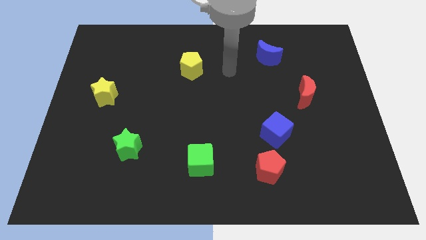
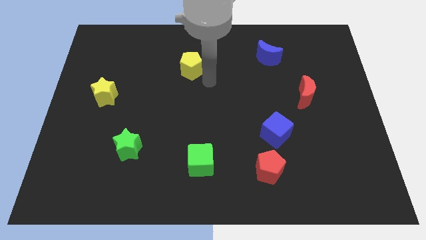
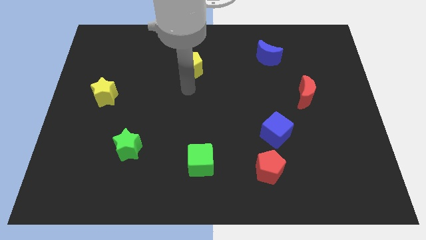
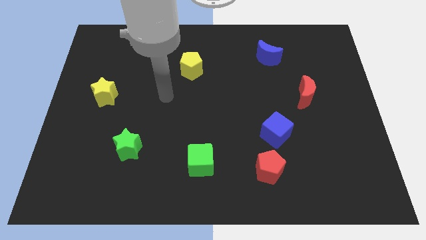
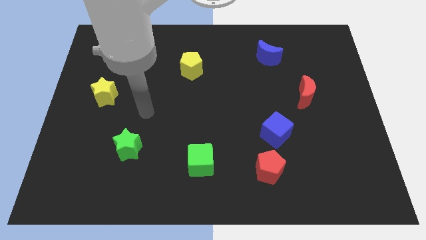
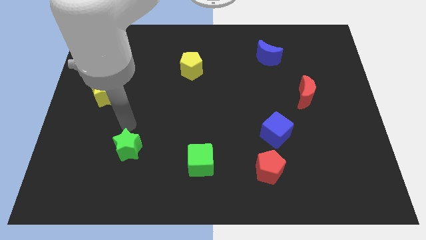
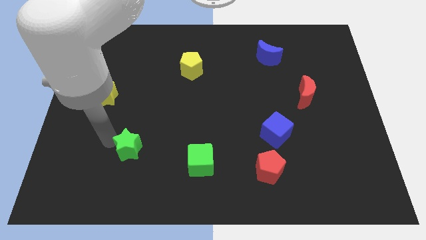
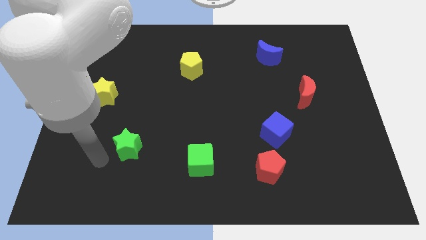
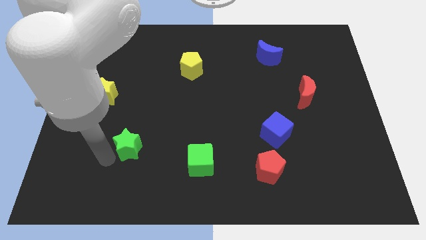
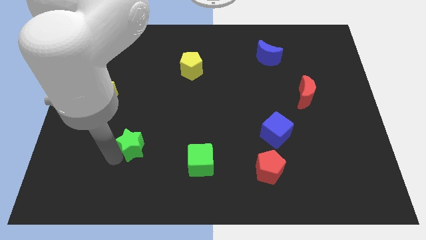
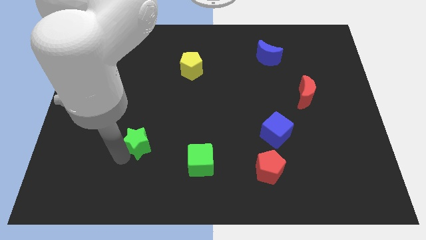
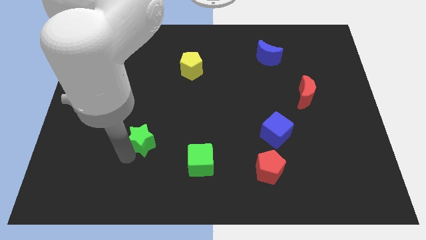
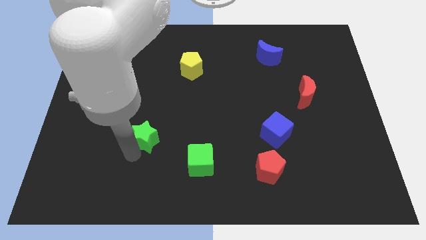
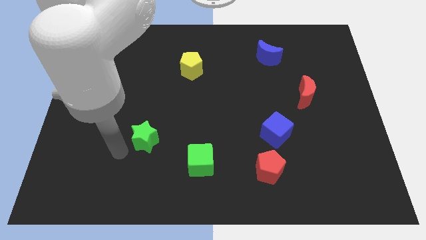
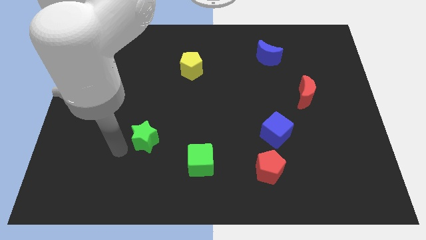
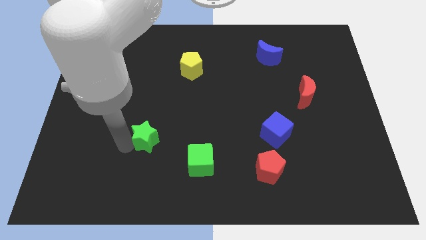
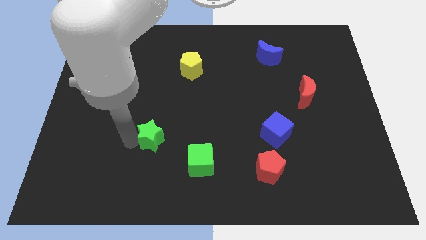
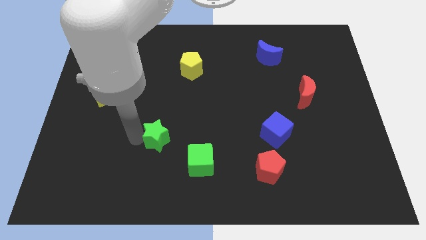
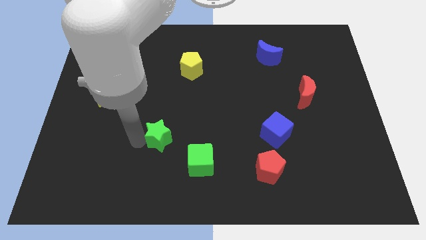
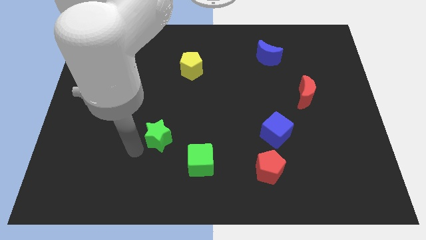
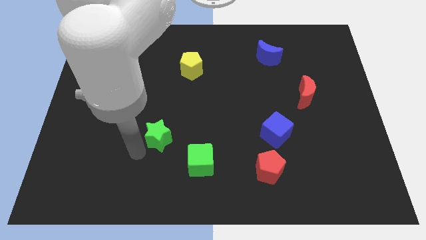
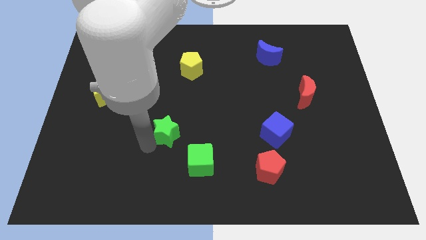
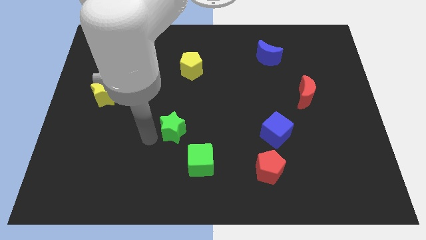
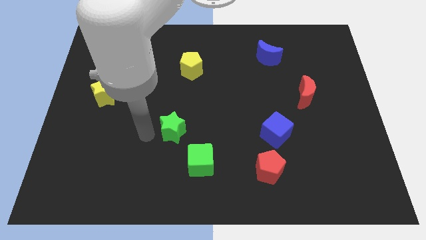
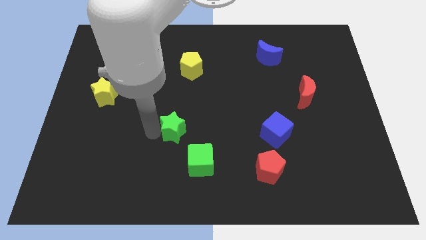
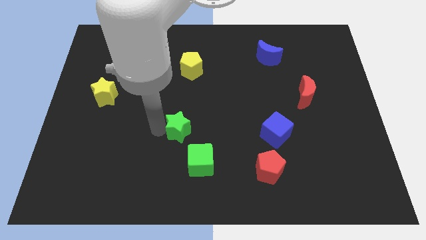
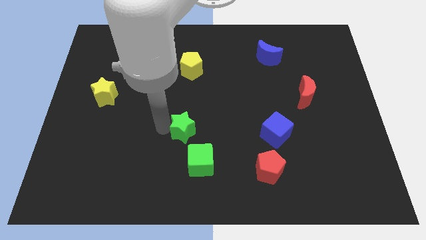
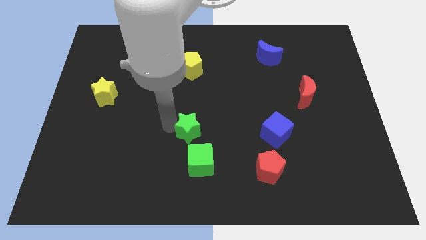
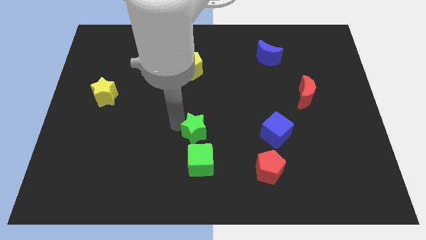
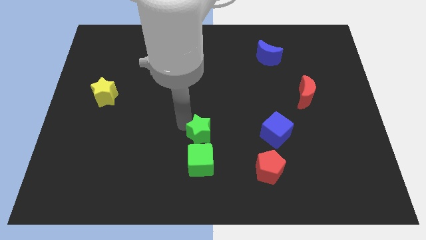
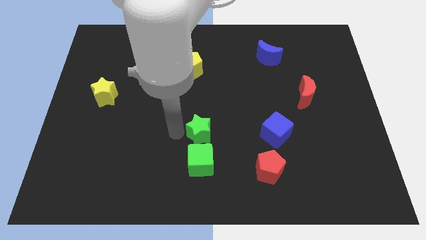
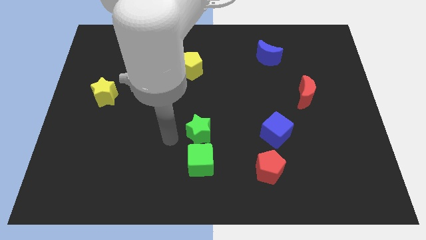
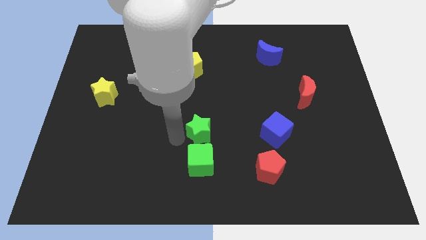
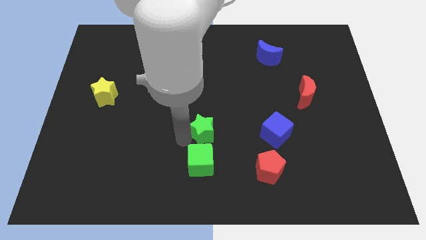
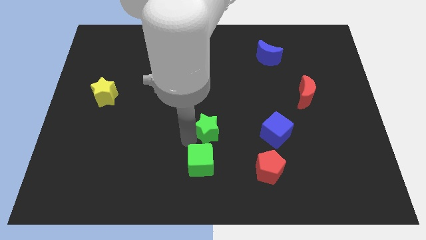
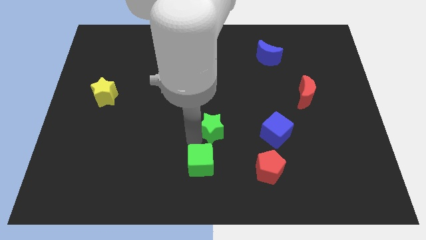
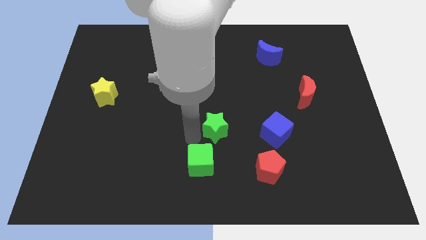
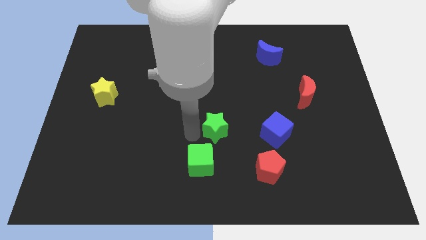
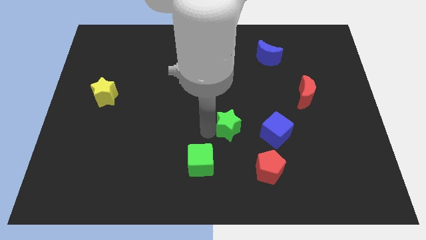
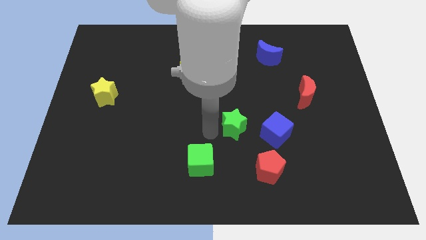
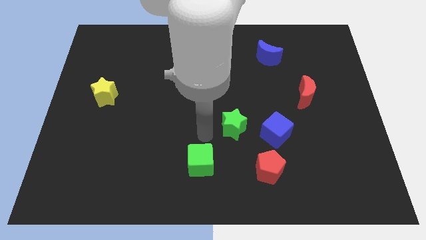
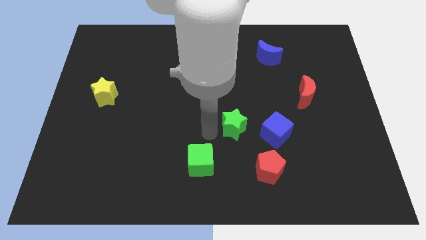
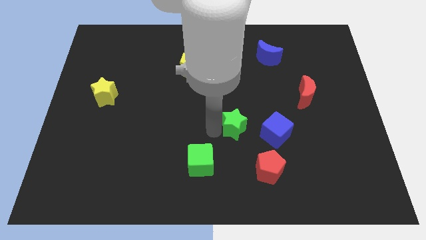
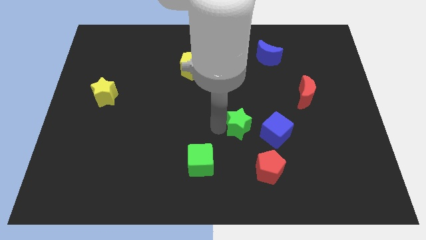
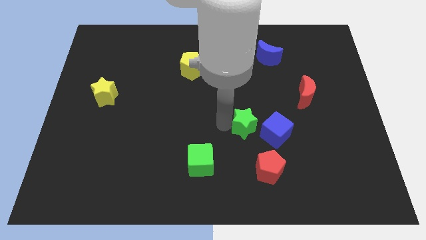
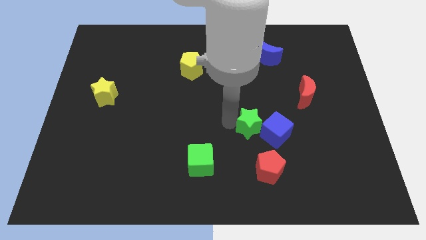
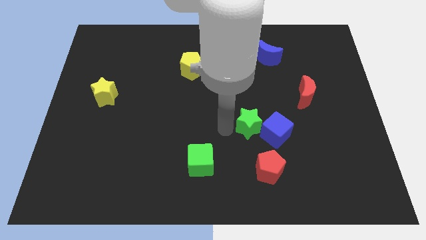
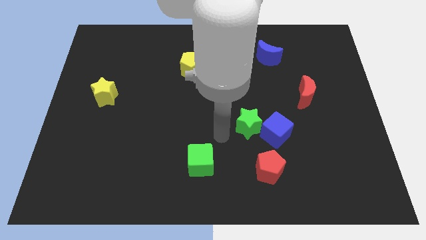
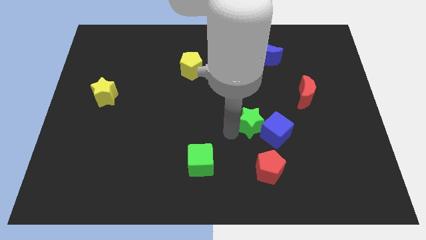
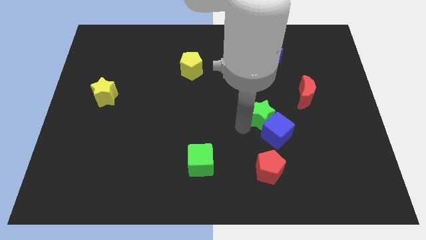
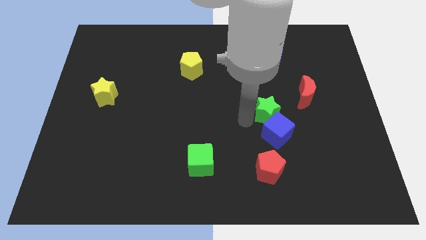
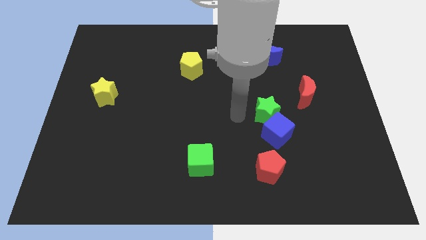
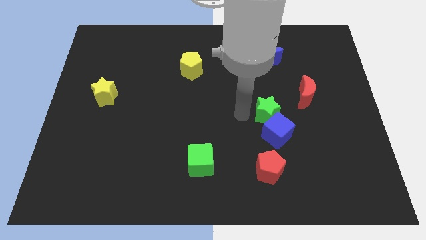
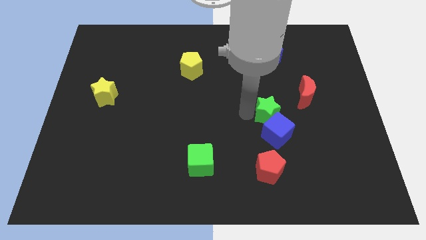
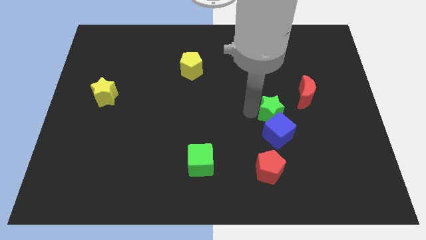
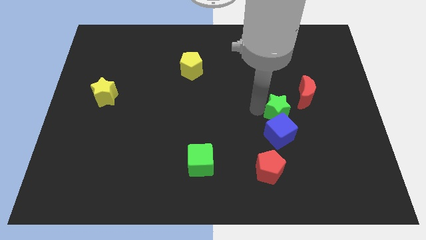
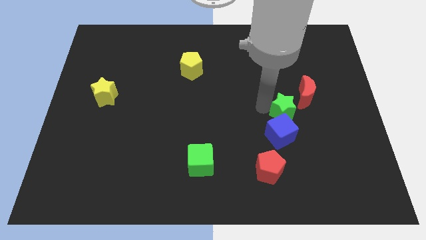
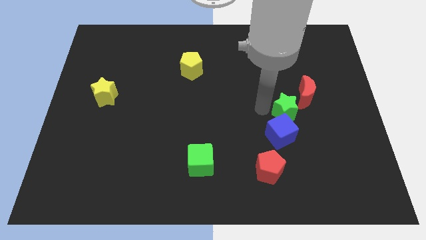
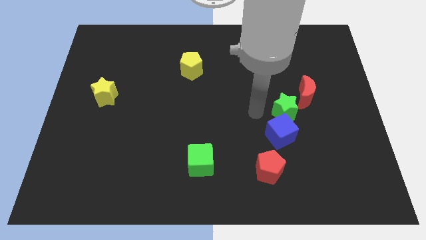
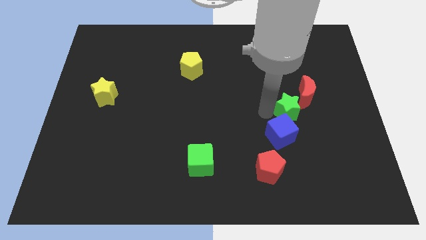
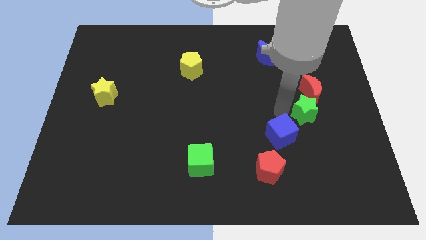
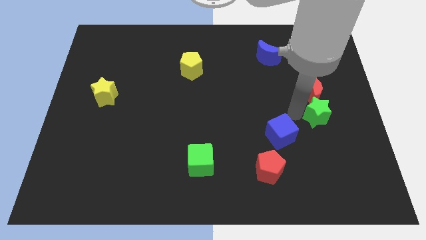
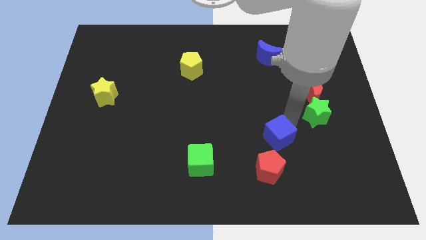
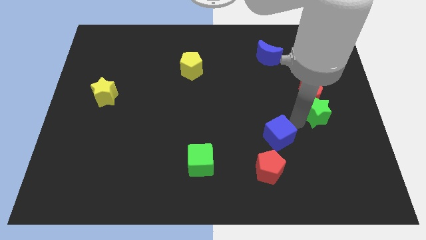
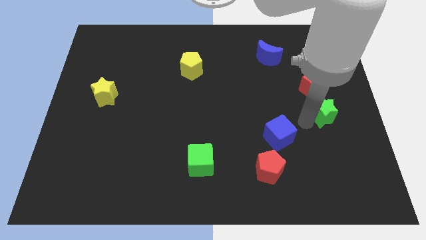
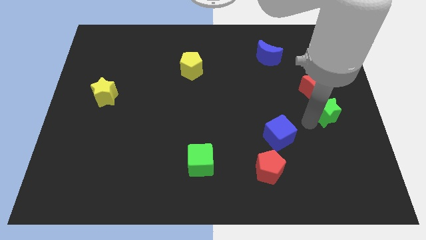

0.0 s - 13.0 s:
slide the green star to the right side

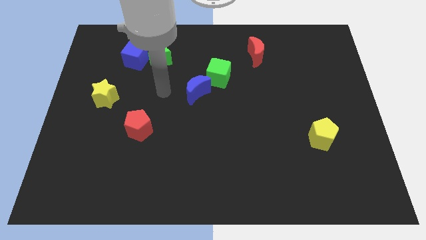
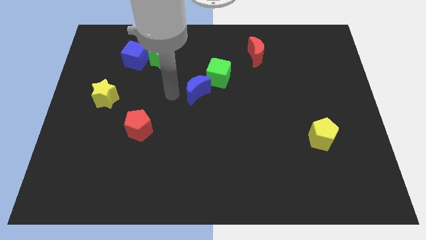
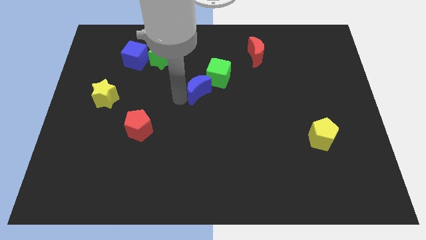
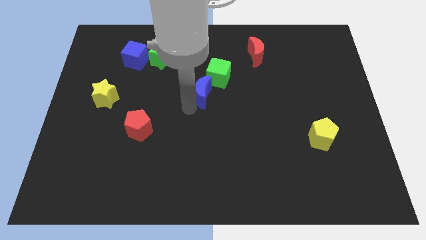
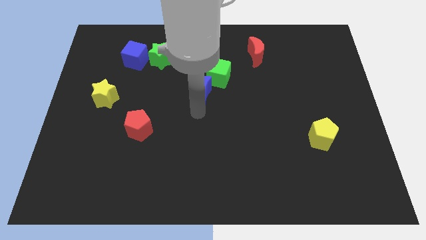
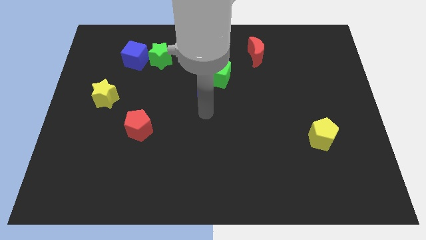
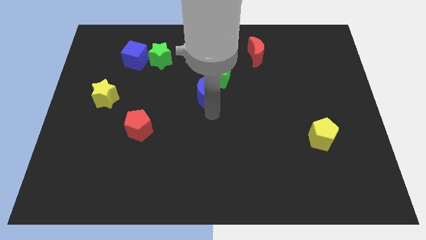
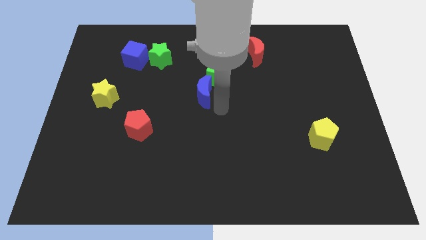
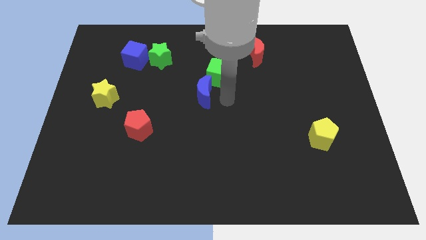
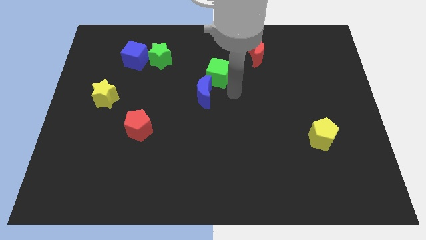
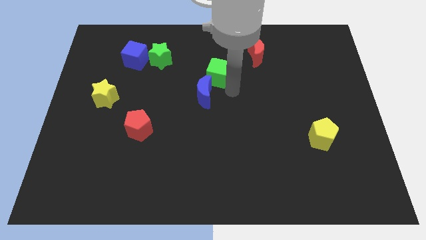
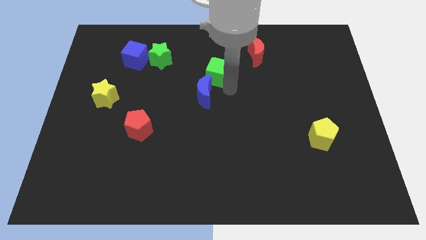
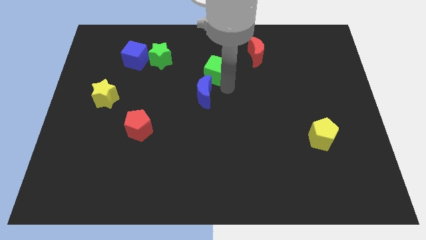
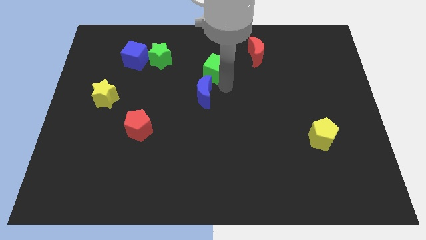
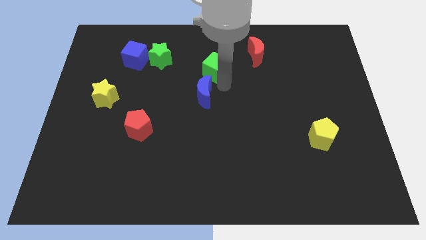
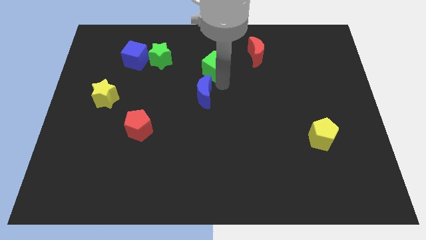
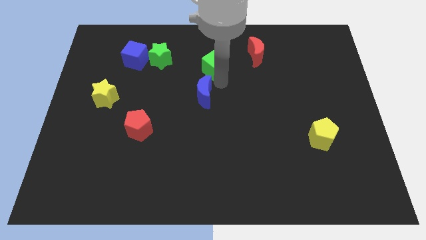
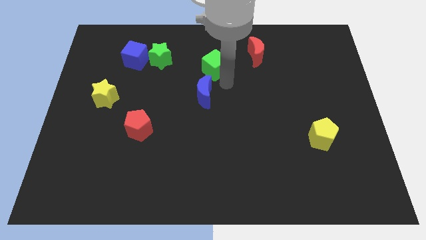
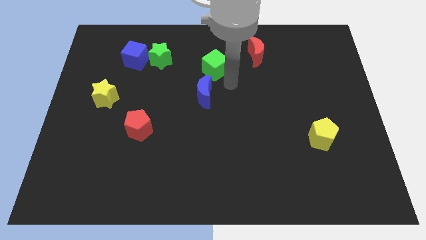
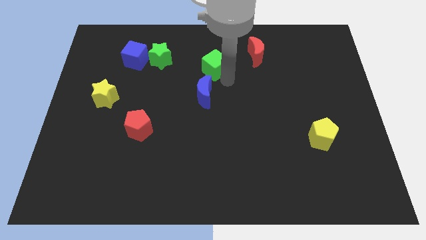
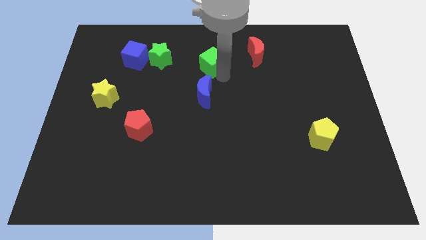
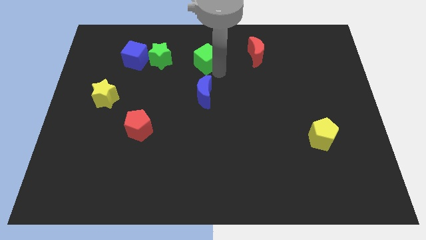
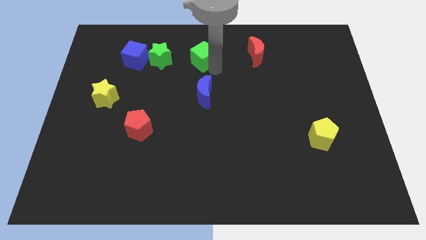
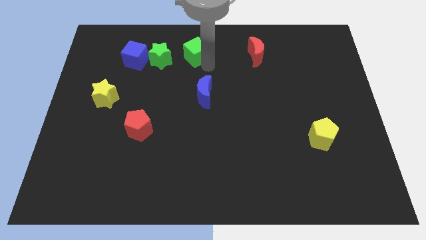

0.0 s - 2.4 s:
move the green cube to the towards your base
